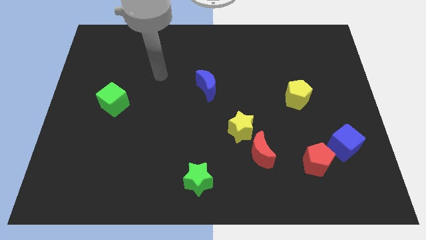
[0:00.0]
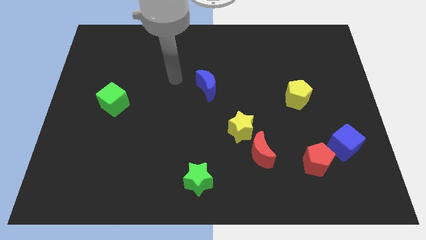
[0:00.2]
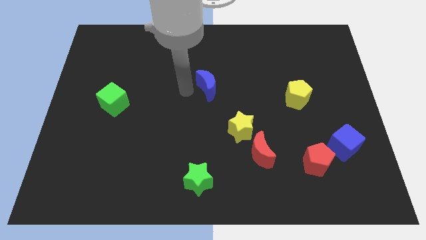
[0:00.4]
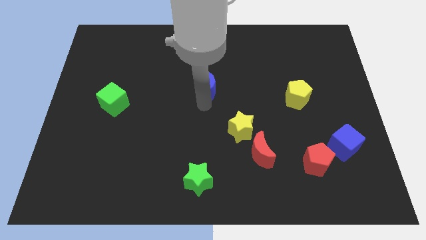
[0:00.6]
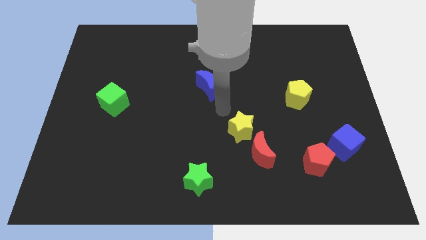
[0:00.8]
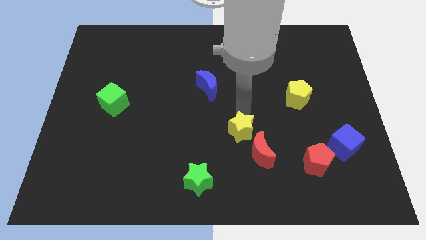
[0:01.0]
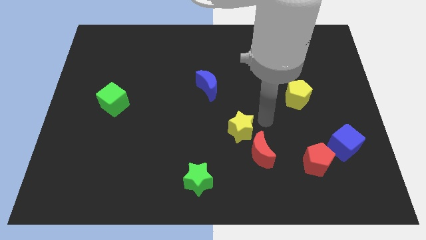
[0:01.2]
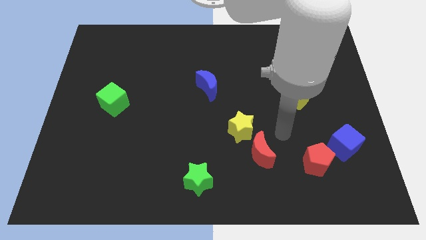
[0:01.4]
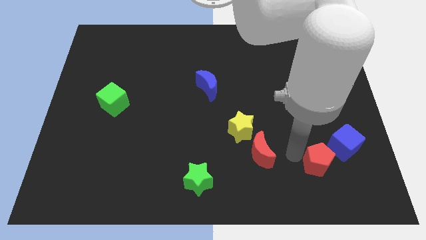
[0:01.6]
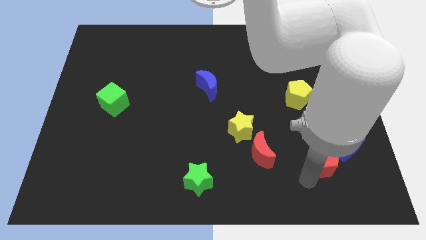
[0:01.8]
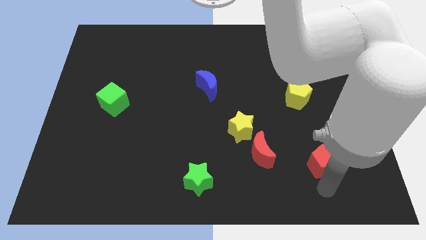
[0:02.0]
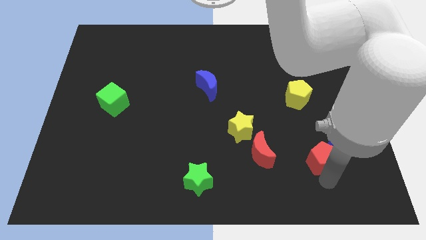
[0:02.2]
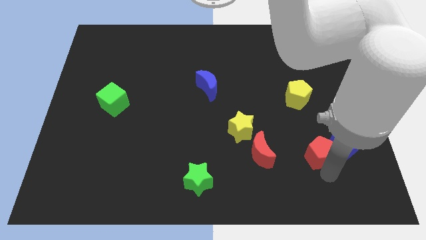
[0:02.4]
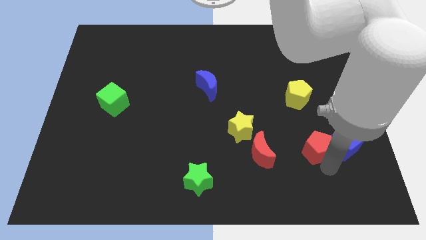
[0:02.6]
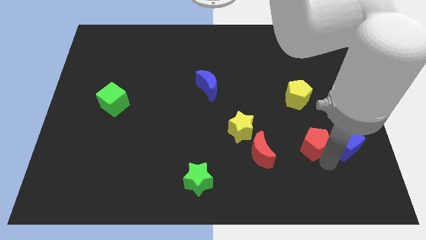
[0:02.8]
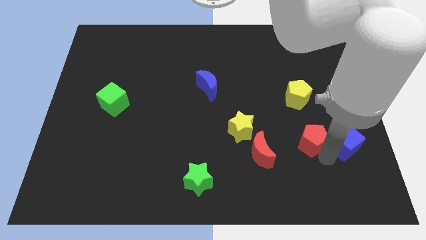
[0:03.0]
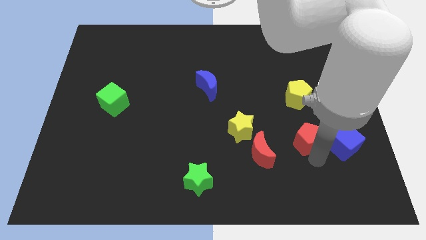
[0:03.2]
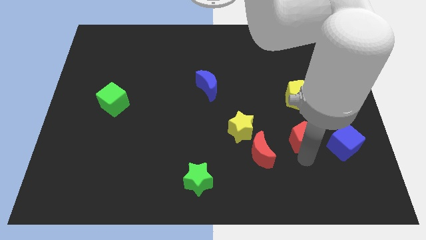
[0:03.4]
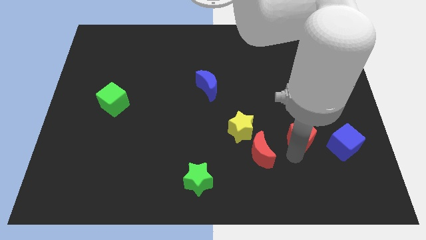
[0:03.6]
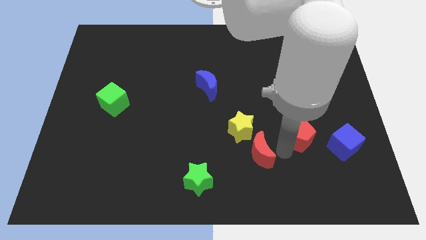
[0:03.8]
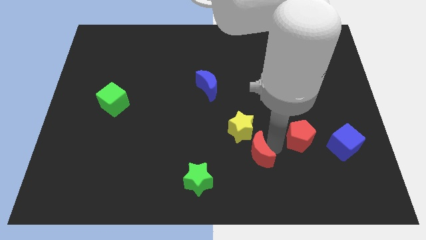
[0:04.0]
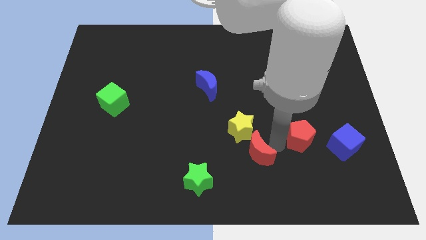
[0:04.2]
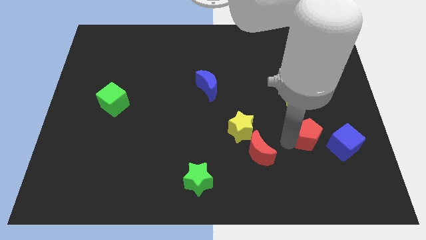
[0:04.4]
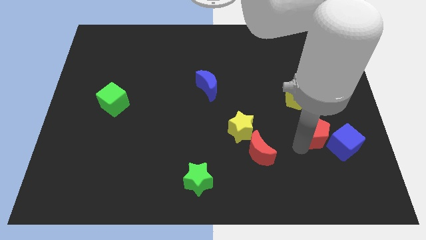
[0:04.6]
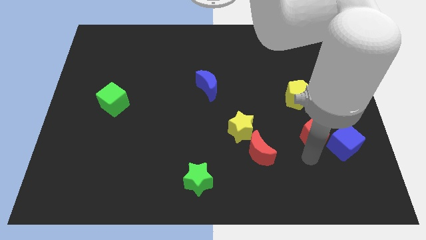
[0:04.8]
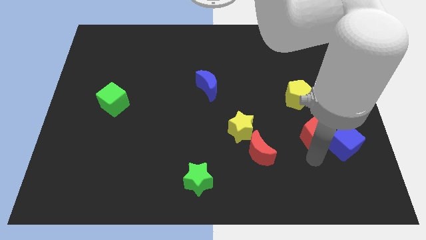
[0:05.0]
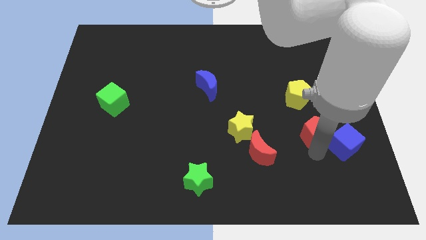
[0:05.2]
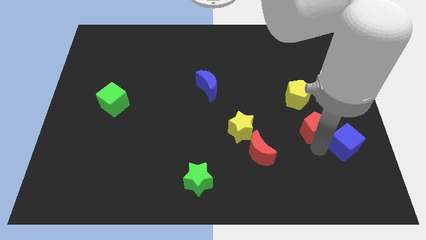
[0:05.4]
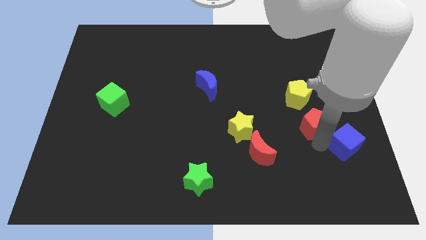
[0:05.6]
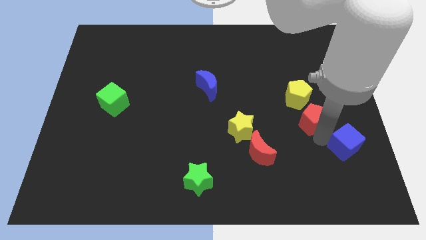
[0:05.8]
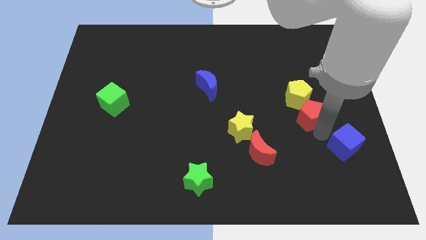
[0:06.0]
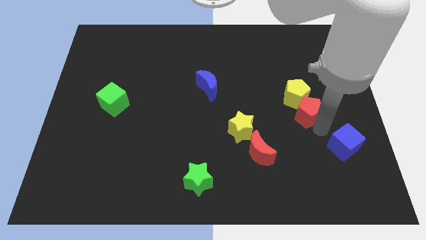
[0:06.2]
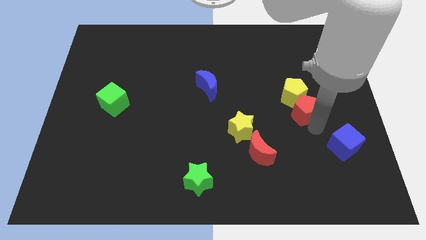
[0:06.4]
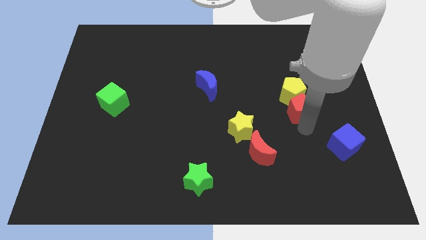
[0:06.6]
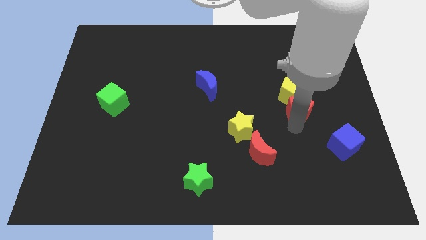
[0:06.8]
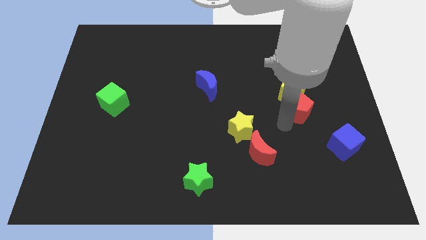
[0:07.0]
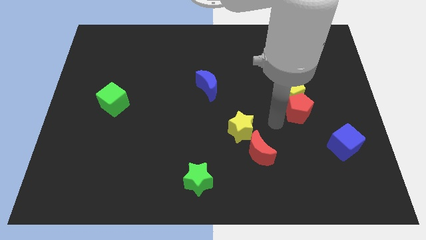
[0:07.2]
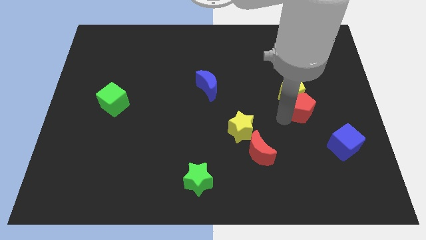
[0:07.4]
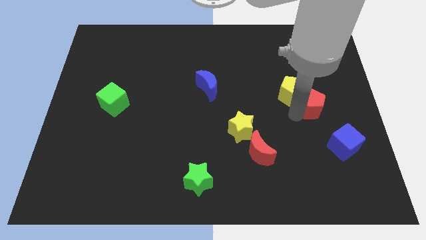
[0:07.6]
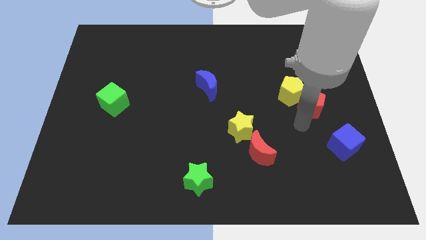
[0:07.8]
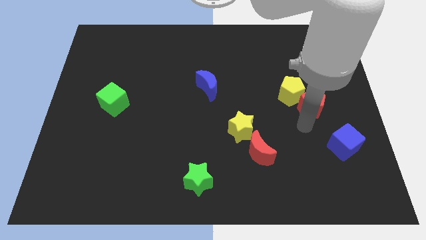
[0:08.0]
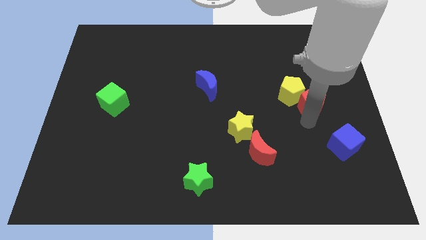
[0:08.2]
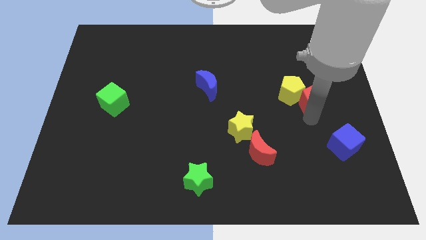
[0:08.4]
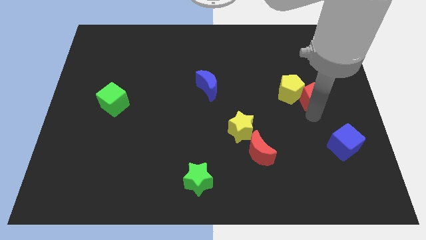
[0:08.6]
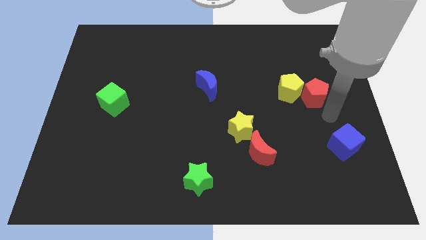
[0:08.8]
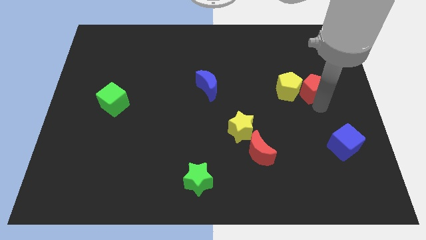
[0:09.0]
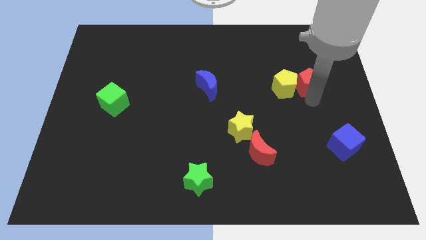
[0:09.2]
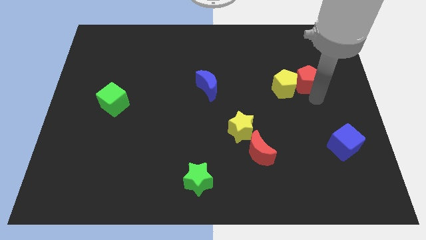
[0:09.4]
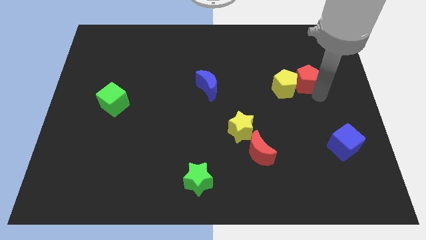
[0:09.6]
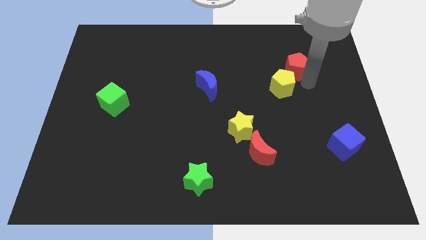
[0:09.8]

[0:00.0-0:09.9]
push the red pentagon to the top side of the yellow pentagon

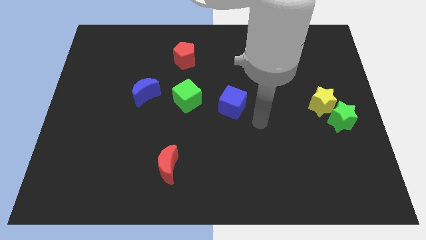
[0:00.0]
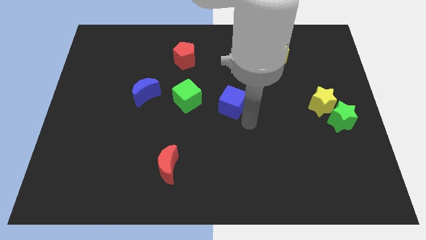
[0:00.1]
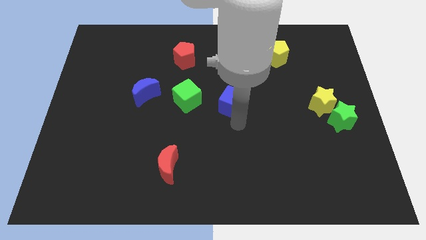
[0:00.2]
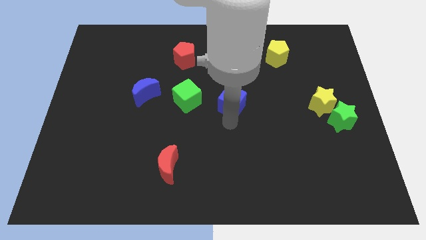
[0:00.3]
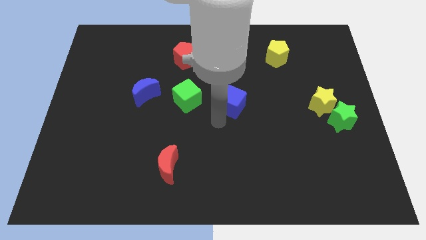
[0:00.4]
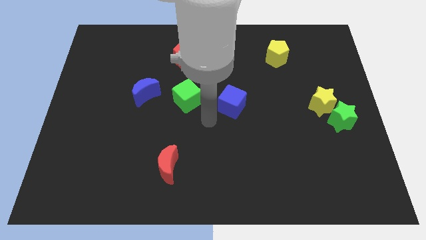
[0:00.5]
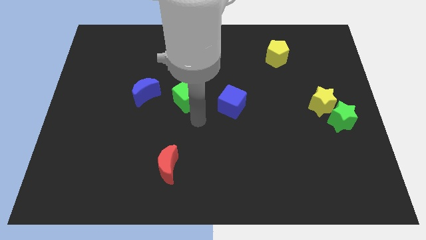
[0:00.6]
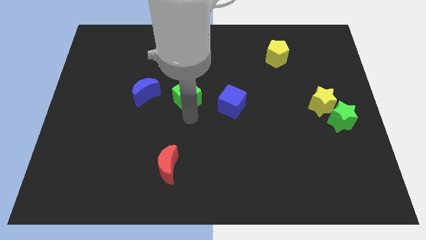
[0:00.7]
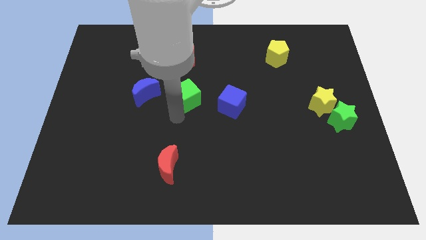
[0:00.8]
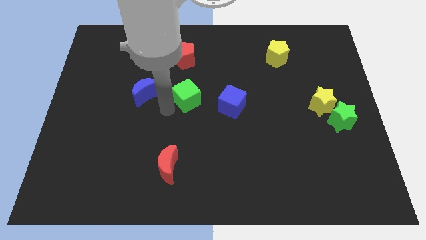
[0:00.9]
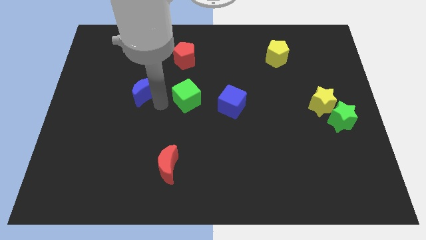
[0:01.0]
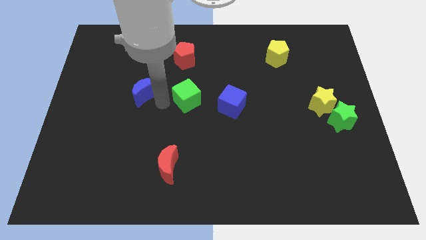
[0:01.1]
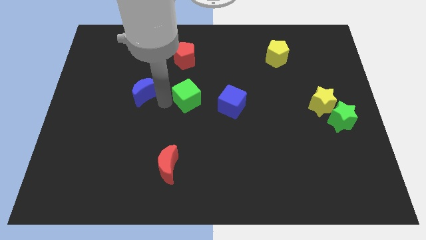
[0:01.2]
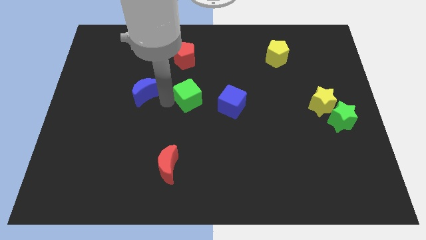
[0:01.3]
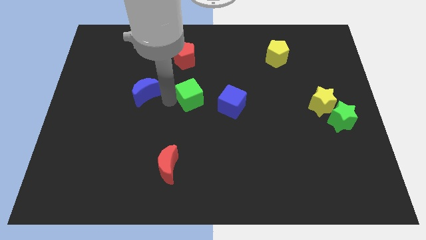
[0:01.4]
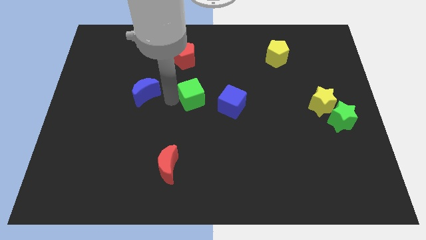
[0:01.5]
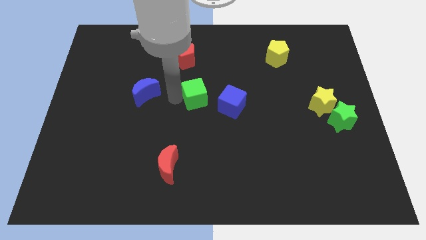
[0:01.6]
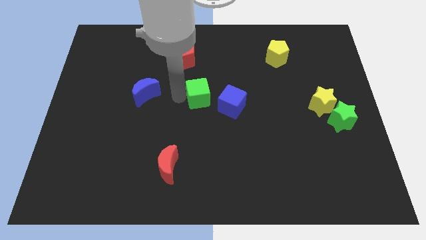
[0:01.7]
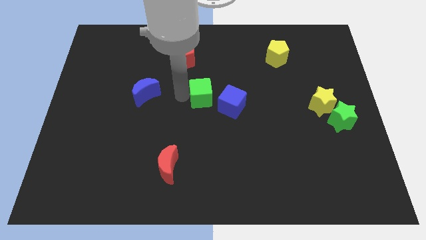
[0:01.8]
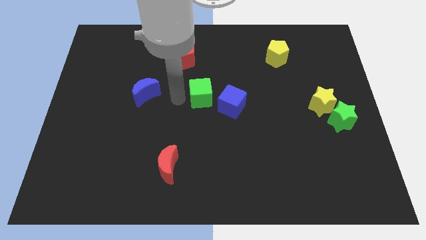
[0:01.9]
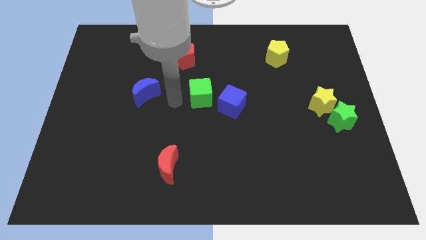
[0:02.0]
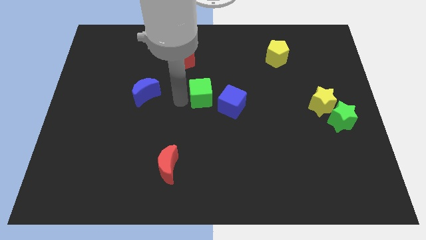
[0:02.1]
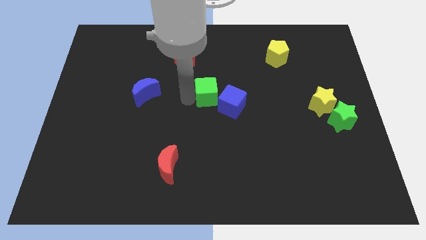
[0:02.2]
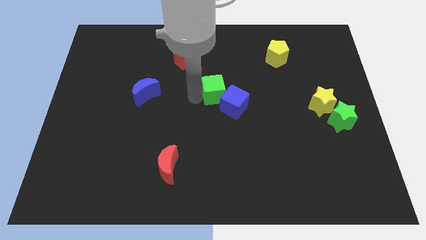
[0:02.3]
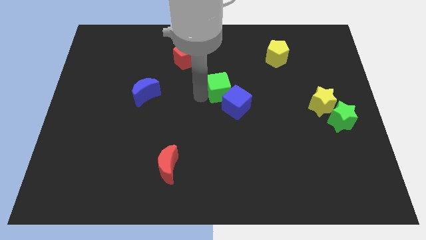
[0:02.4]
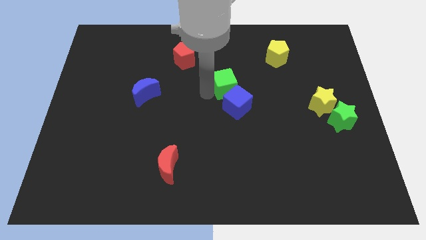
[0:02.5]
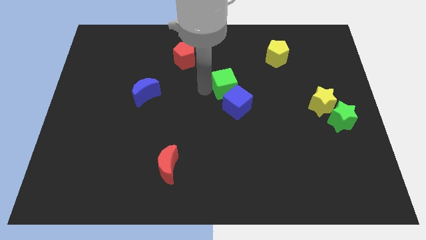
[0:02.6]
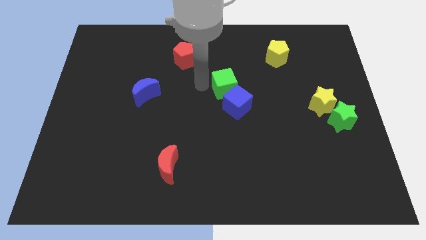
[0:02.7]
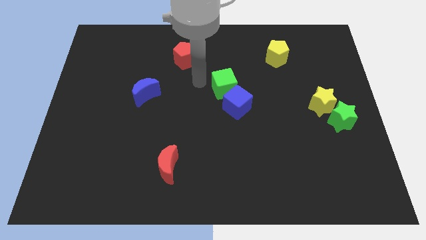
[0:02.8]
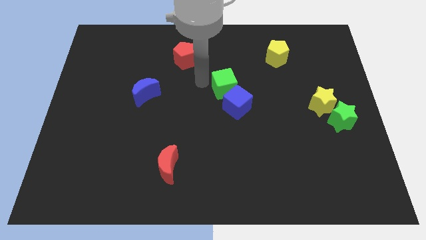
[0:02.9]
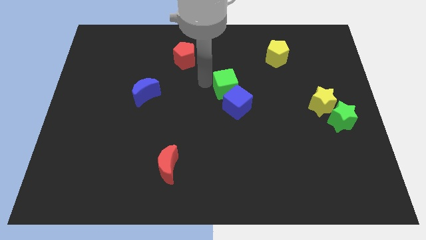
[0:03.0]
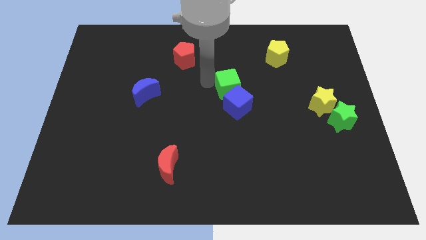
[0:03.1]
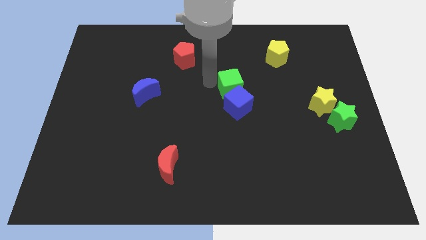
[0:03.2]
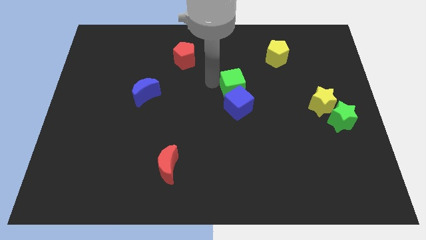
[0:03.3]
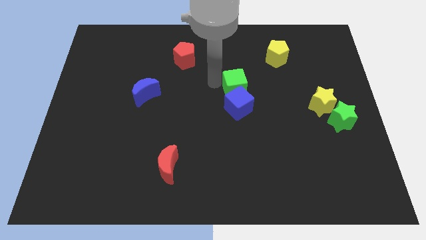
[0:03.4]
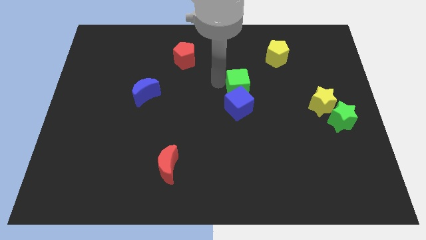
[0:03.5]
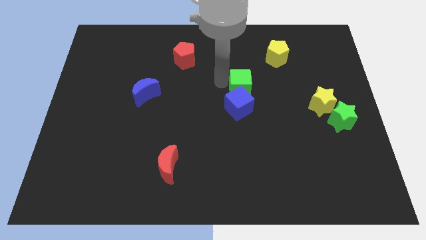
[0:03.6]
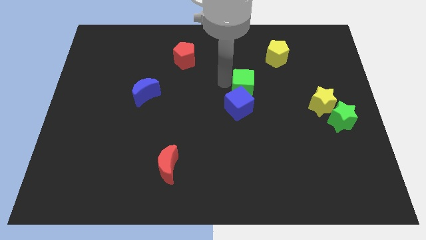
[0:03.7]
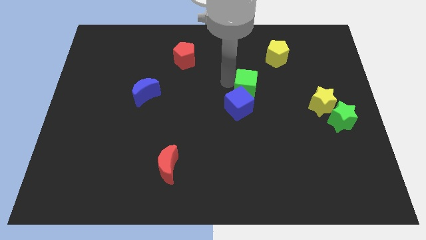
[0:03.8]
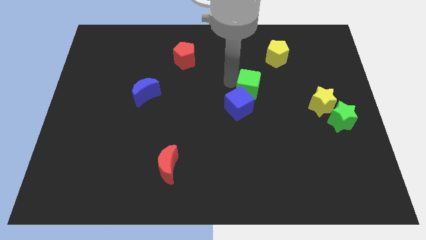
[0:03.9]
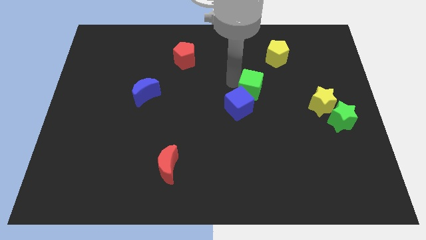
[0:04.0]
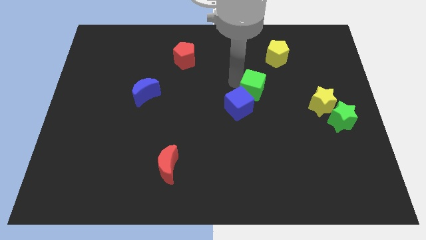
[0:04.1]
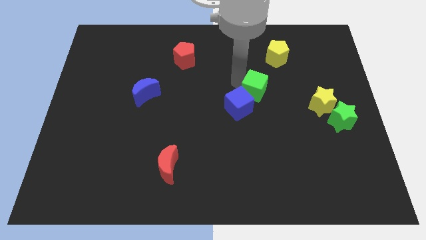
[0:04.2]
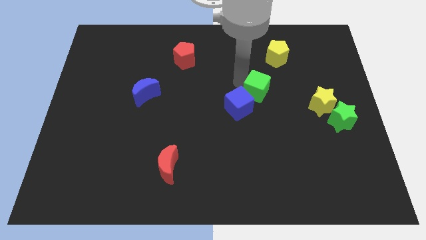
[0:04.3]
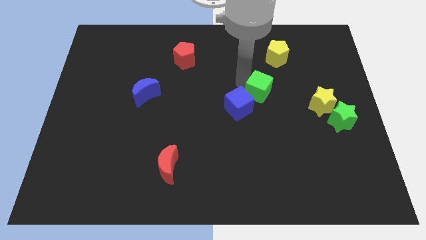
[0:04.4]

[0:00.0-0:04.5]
push the green cube right of the blue cube
